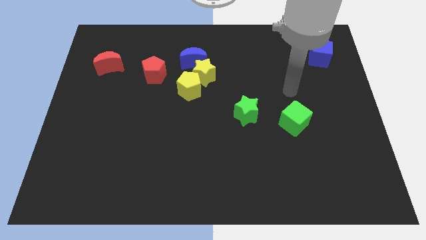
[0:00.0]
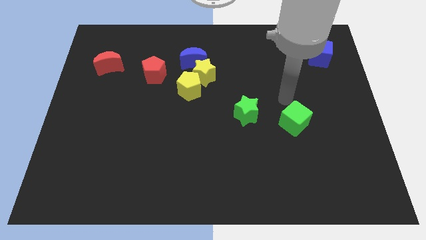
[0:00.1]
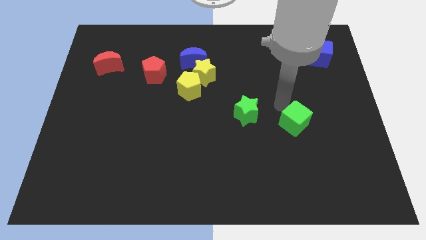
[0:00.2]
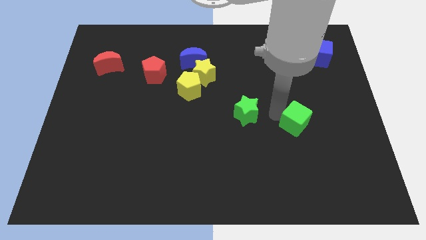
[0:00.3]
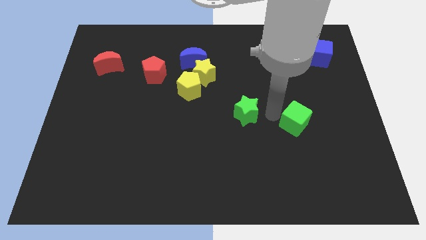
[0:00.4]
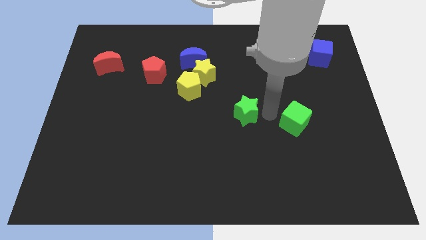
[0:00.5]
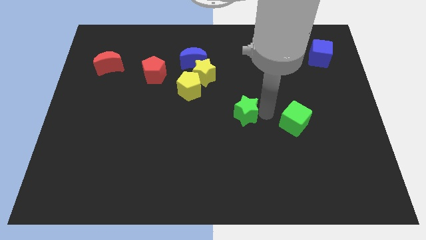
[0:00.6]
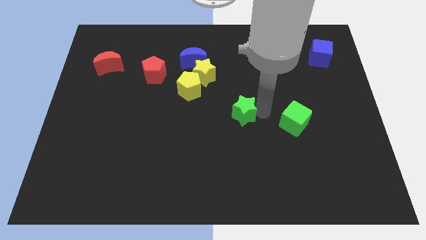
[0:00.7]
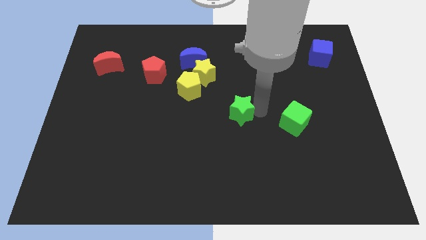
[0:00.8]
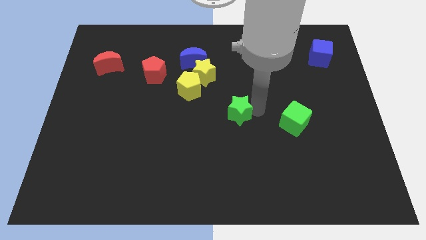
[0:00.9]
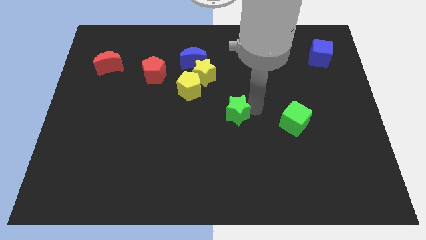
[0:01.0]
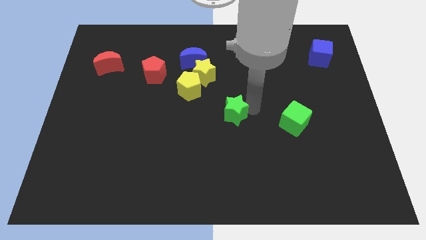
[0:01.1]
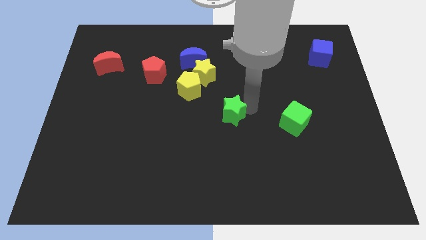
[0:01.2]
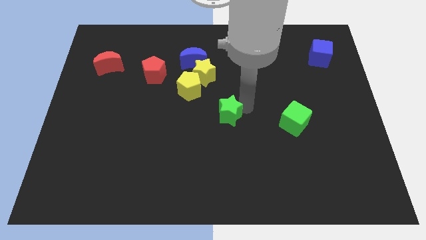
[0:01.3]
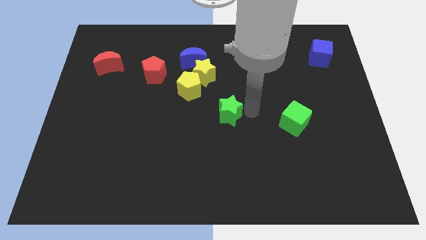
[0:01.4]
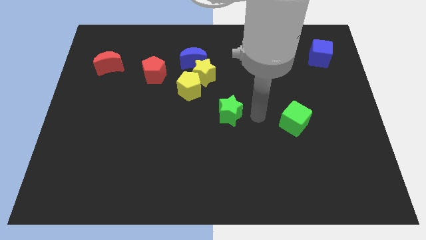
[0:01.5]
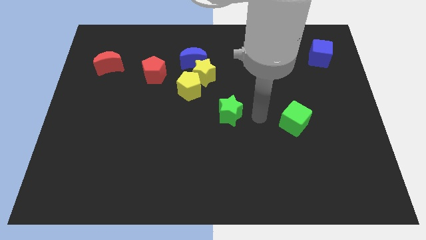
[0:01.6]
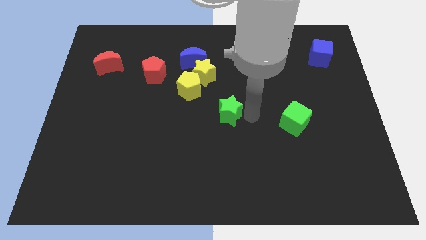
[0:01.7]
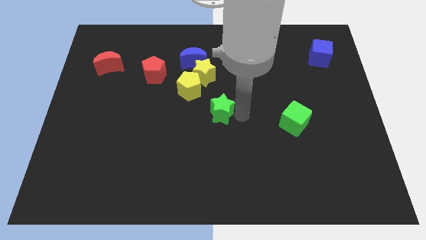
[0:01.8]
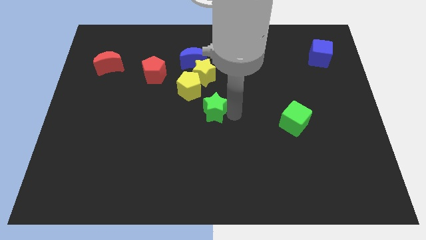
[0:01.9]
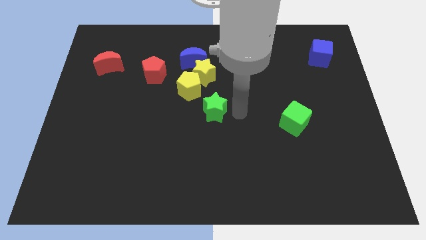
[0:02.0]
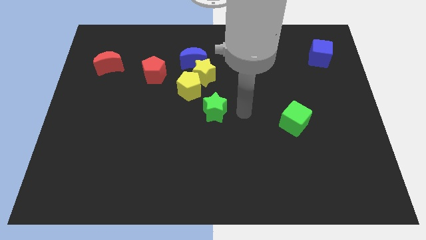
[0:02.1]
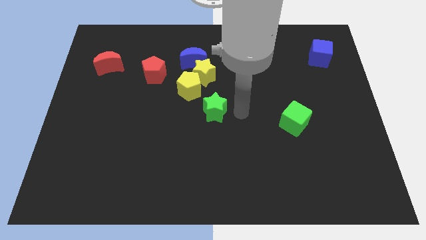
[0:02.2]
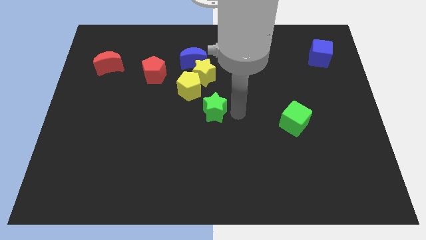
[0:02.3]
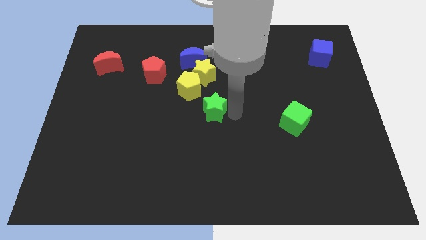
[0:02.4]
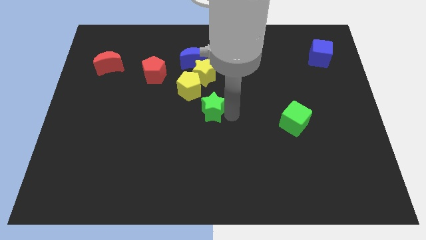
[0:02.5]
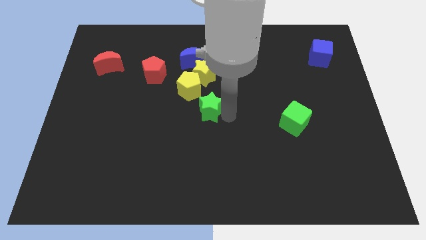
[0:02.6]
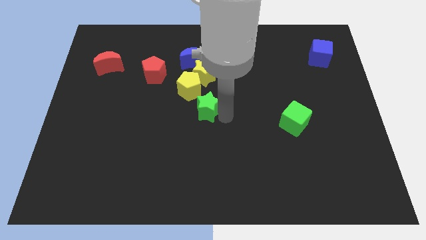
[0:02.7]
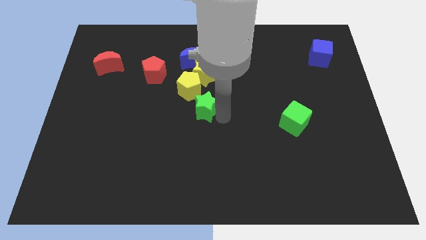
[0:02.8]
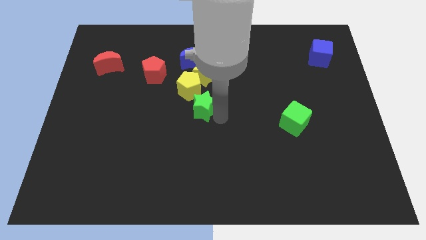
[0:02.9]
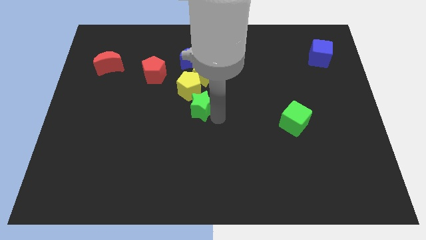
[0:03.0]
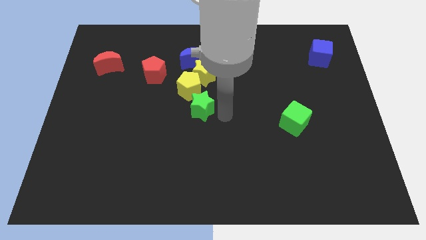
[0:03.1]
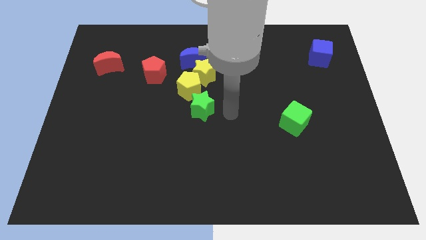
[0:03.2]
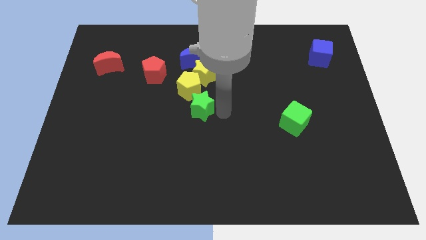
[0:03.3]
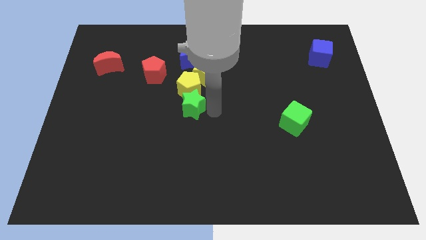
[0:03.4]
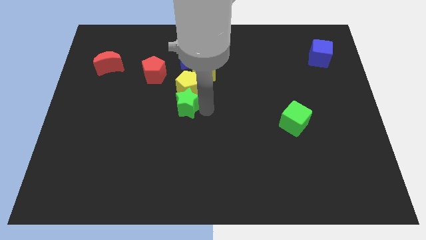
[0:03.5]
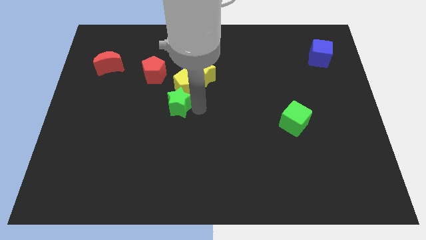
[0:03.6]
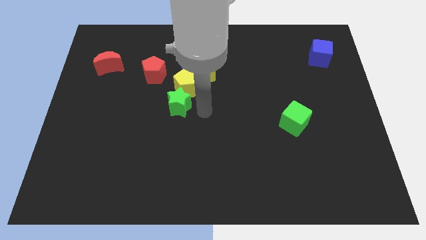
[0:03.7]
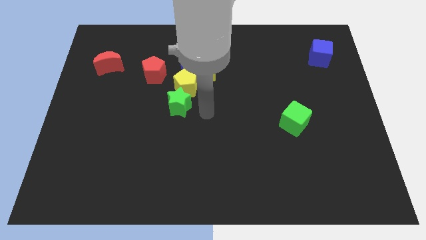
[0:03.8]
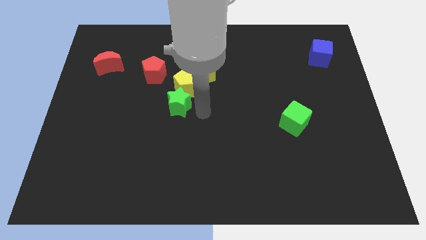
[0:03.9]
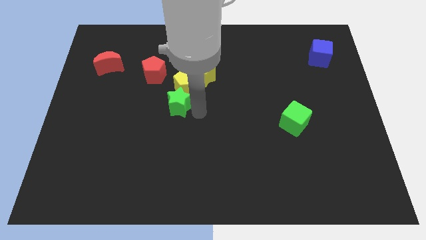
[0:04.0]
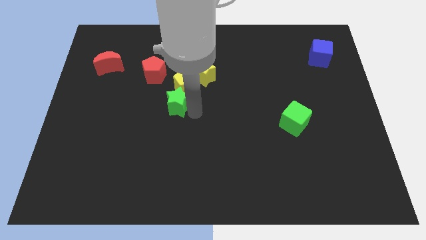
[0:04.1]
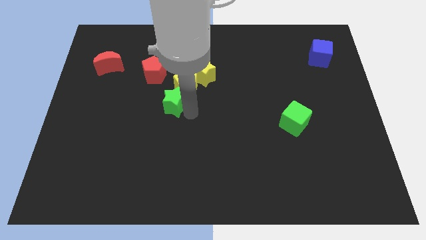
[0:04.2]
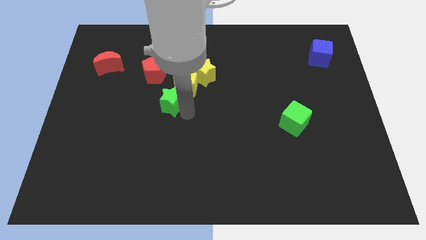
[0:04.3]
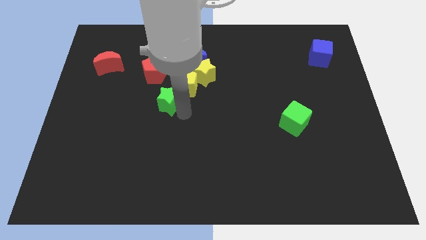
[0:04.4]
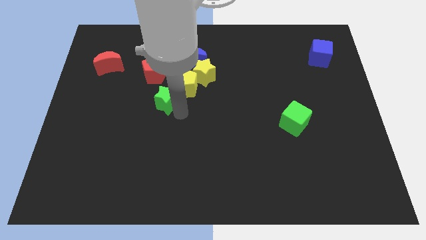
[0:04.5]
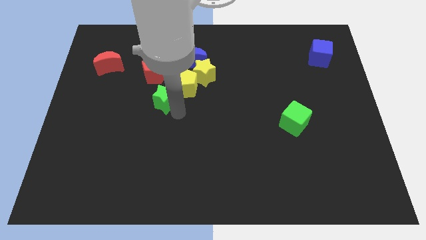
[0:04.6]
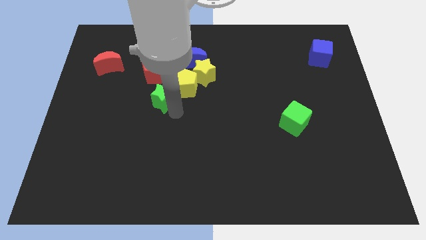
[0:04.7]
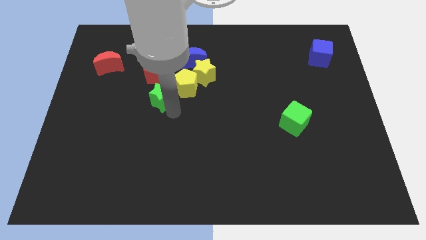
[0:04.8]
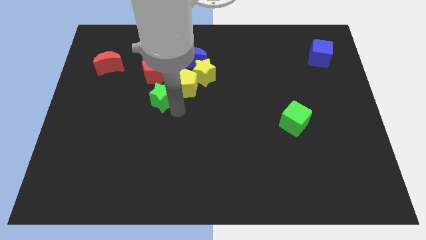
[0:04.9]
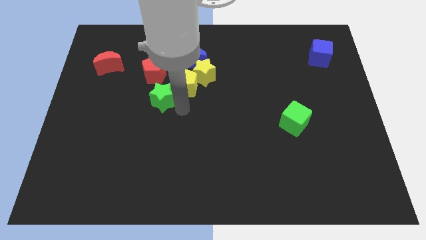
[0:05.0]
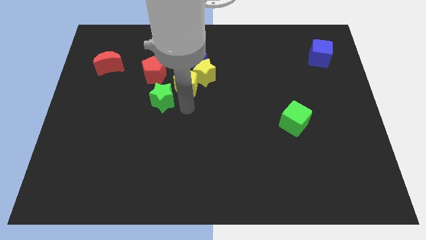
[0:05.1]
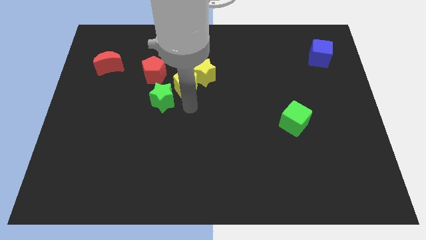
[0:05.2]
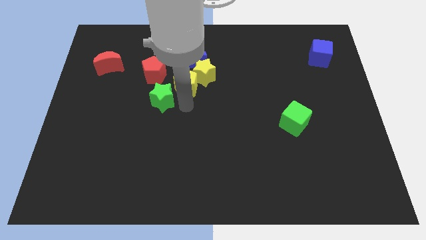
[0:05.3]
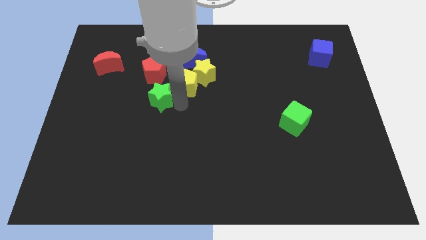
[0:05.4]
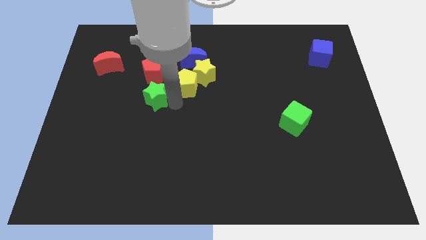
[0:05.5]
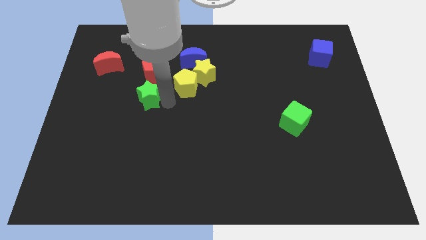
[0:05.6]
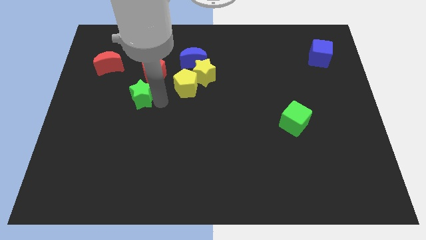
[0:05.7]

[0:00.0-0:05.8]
move the green star to the bottom left of the red pentagon
